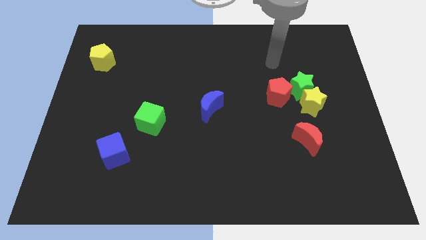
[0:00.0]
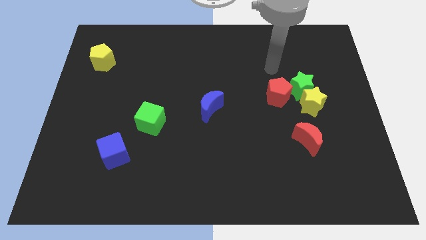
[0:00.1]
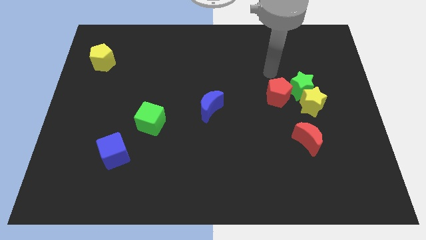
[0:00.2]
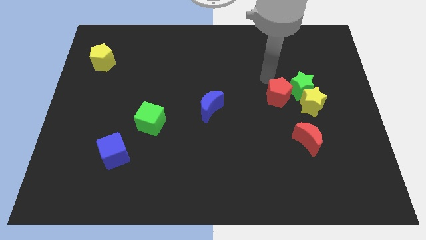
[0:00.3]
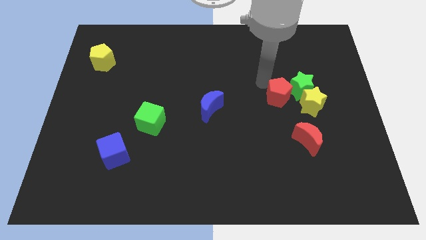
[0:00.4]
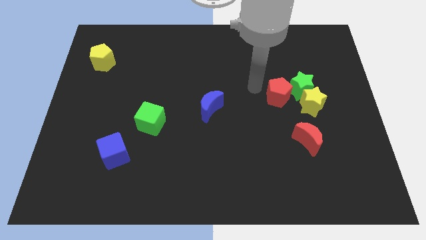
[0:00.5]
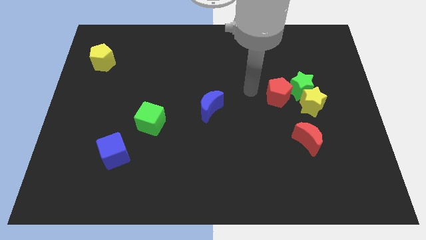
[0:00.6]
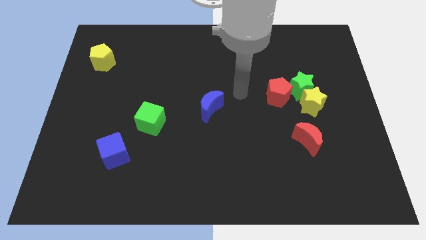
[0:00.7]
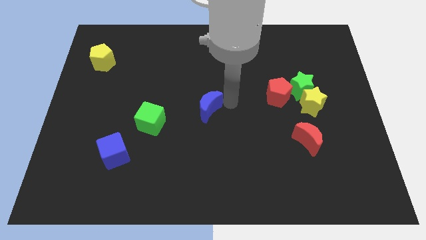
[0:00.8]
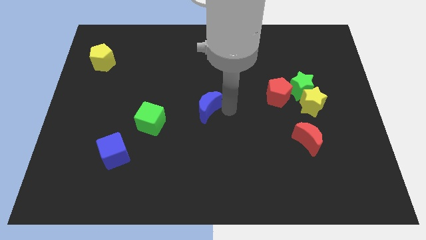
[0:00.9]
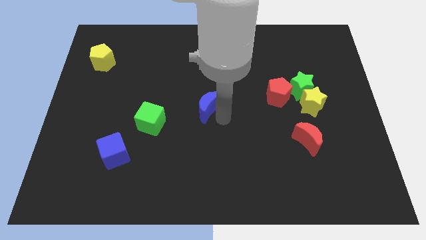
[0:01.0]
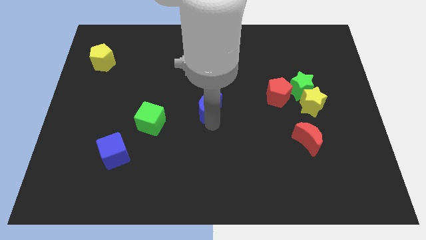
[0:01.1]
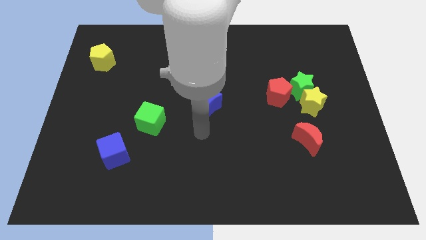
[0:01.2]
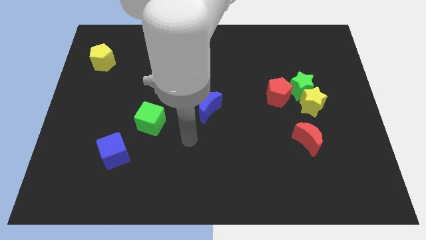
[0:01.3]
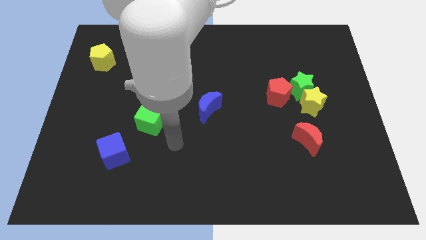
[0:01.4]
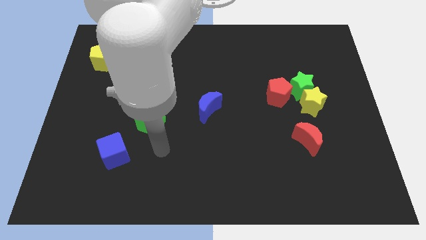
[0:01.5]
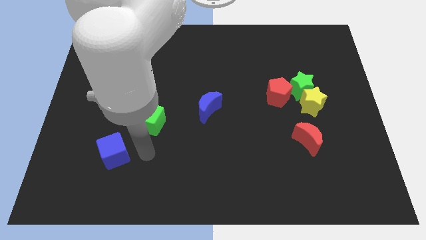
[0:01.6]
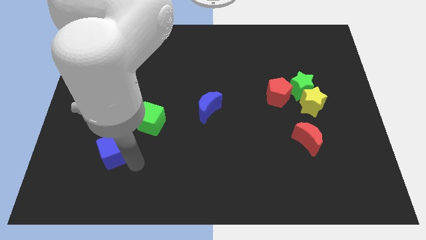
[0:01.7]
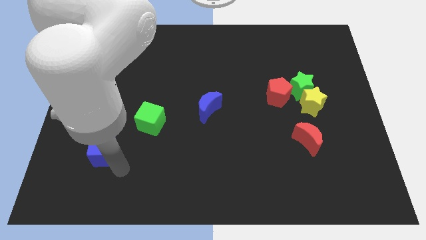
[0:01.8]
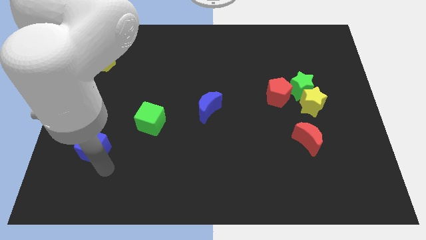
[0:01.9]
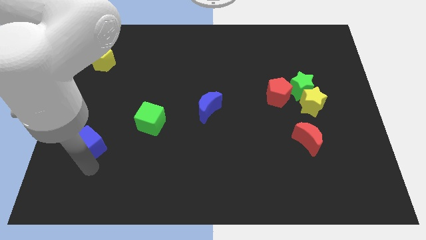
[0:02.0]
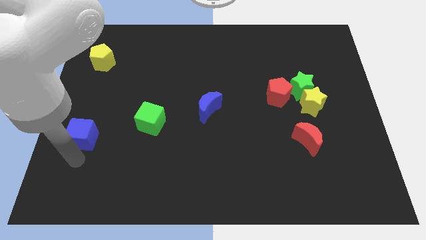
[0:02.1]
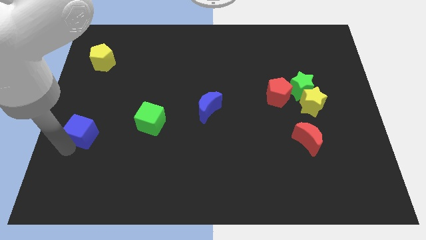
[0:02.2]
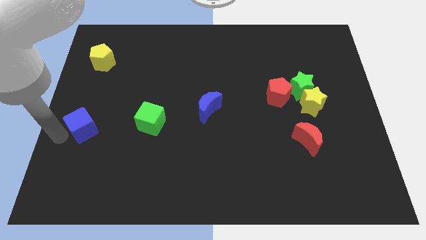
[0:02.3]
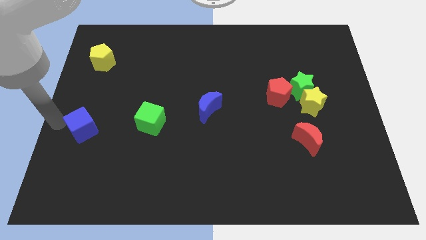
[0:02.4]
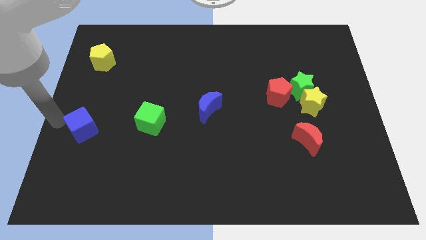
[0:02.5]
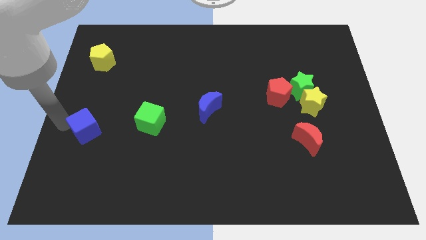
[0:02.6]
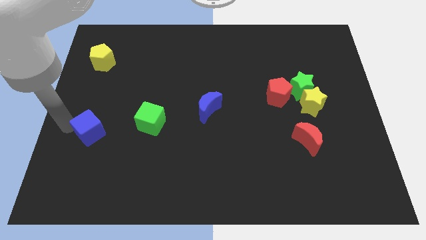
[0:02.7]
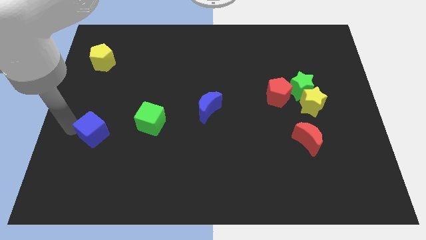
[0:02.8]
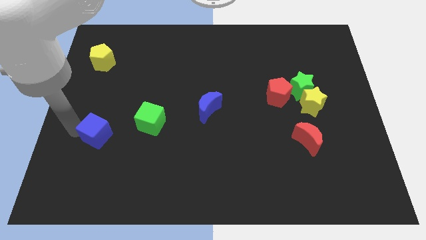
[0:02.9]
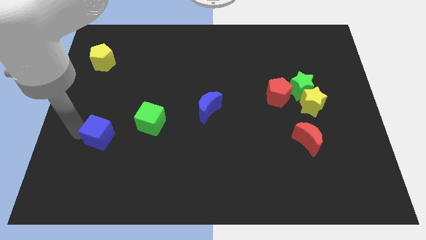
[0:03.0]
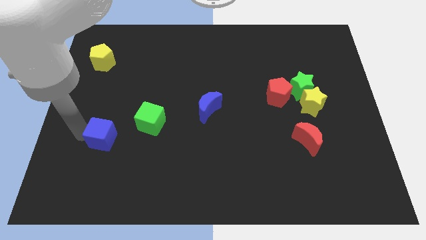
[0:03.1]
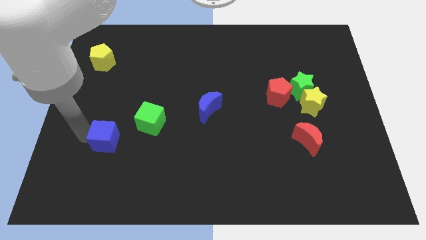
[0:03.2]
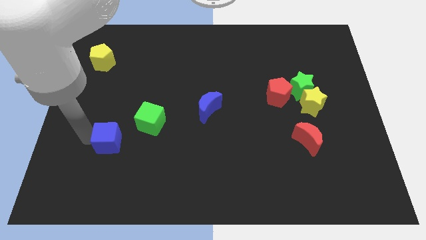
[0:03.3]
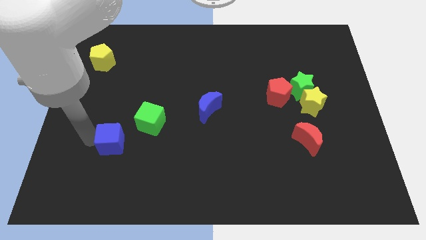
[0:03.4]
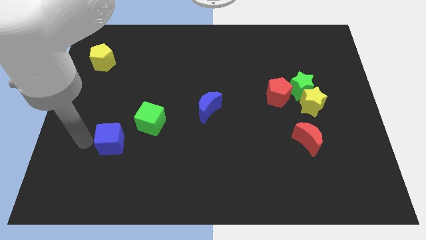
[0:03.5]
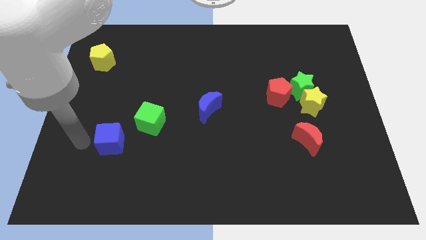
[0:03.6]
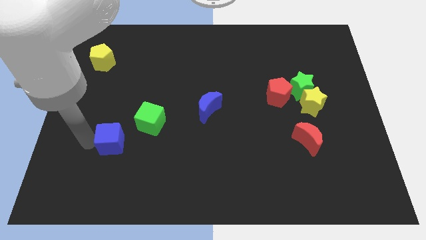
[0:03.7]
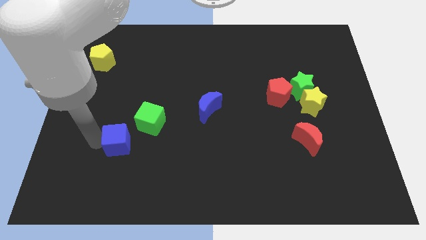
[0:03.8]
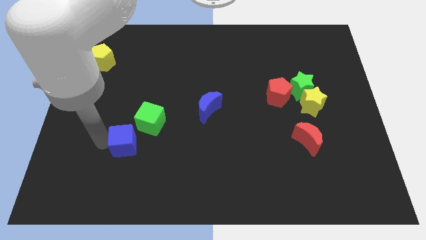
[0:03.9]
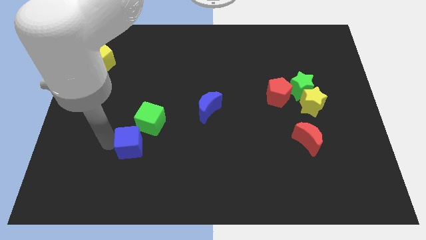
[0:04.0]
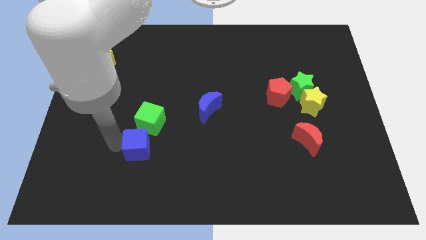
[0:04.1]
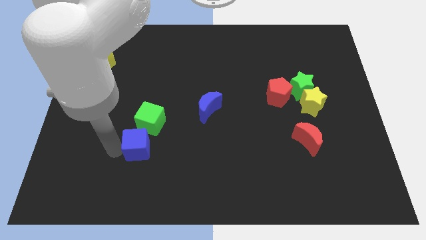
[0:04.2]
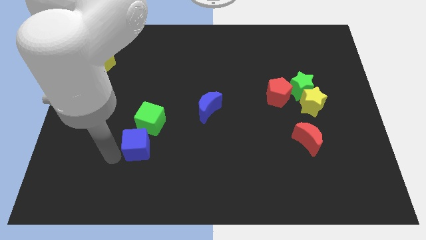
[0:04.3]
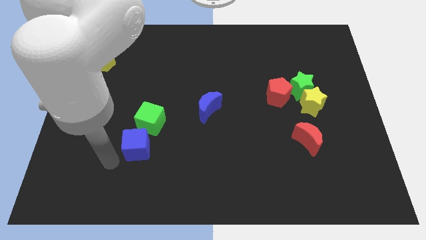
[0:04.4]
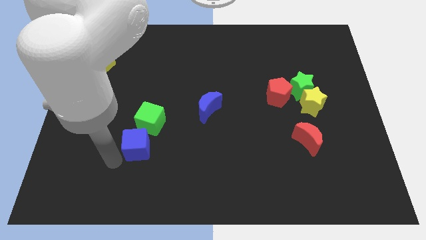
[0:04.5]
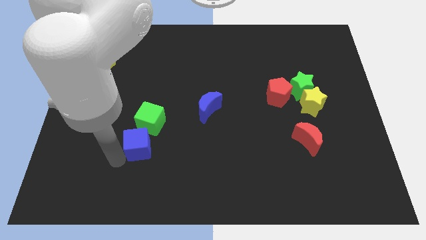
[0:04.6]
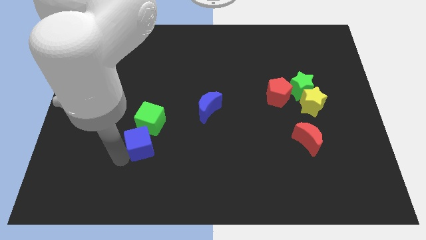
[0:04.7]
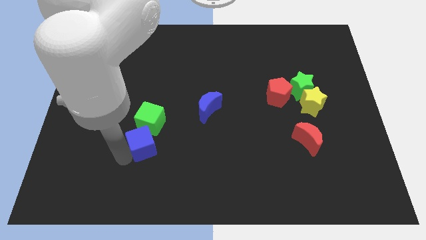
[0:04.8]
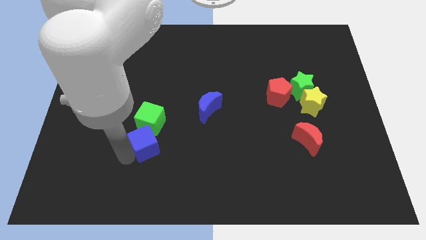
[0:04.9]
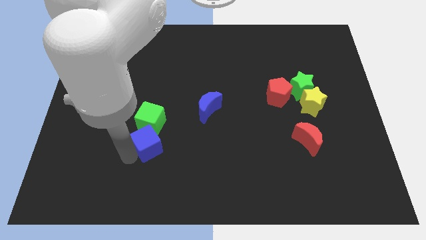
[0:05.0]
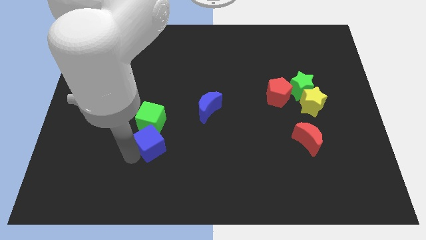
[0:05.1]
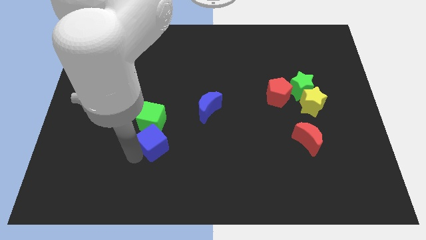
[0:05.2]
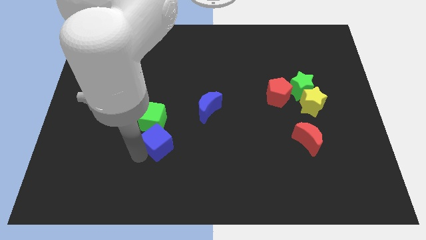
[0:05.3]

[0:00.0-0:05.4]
slightly push the blue cube up and right

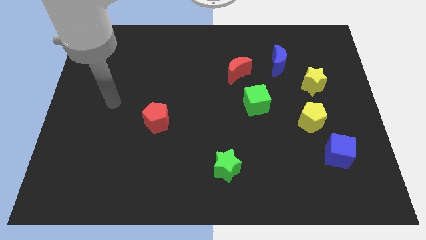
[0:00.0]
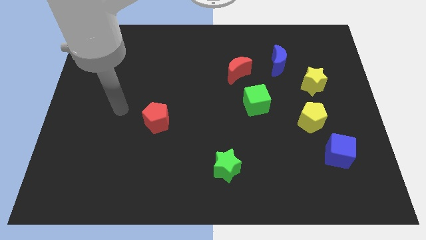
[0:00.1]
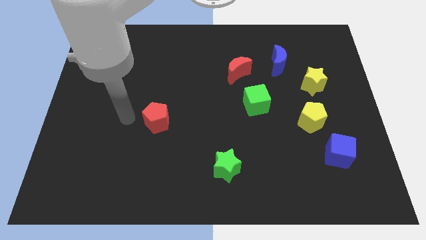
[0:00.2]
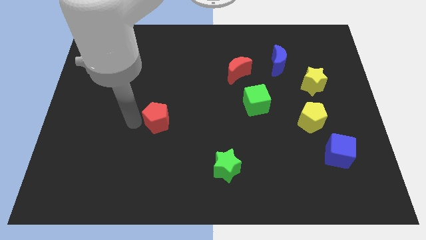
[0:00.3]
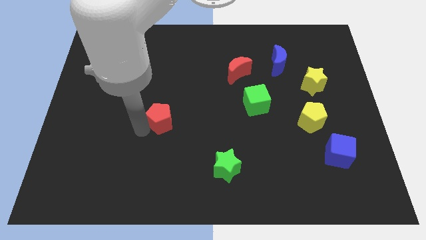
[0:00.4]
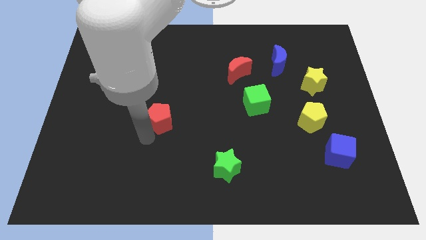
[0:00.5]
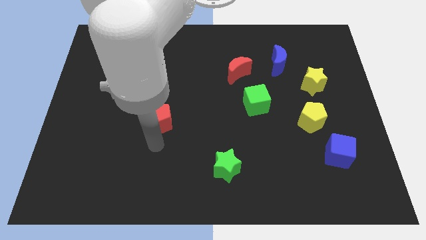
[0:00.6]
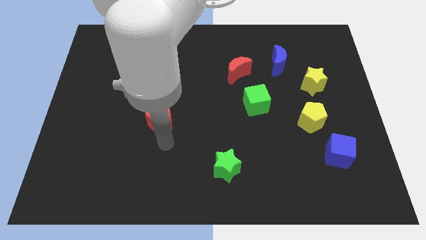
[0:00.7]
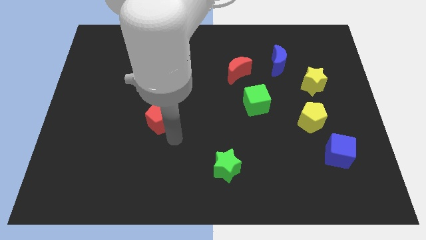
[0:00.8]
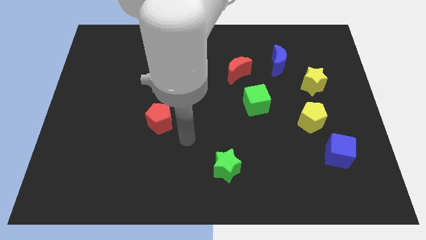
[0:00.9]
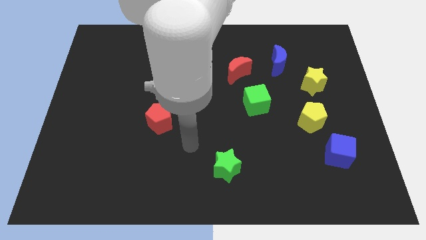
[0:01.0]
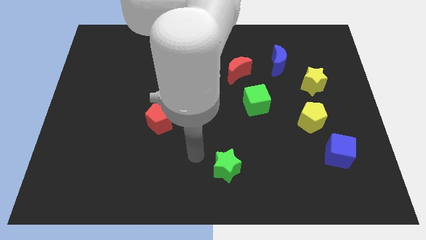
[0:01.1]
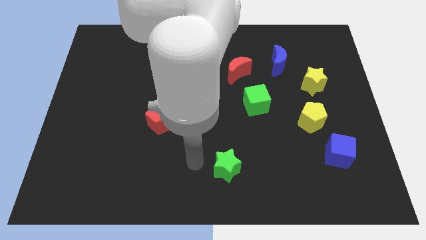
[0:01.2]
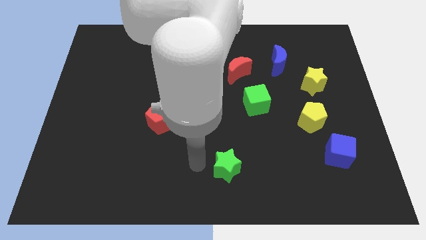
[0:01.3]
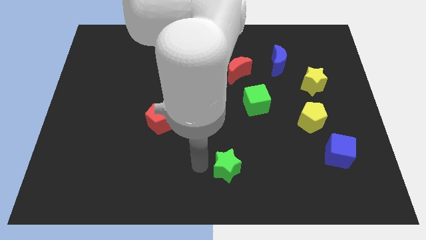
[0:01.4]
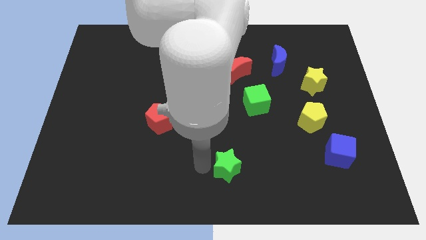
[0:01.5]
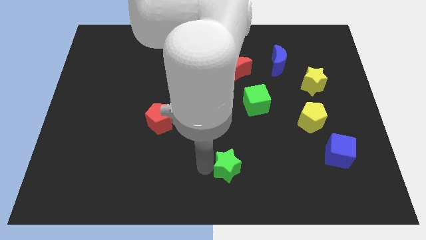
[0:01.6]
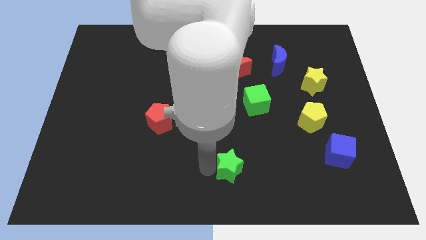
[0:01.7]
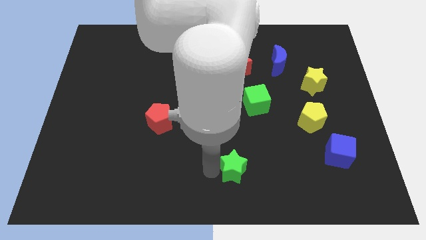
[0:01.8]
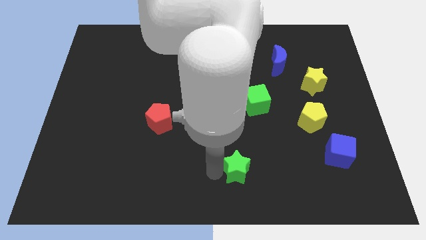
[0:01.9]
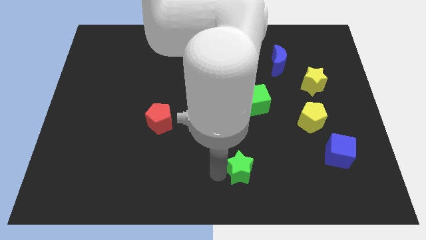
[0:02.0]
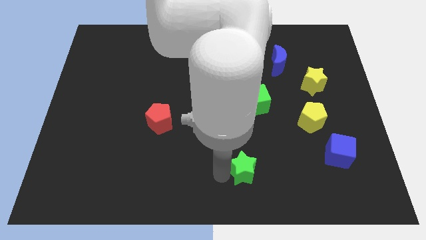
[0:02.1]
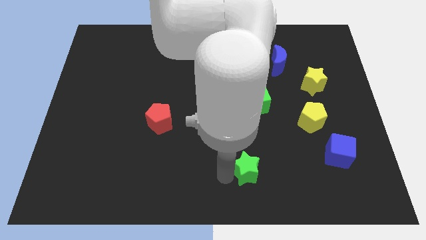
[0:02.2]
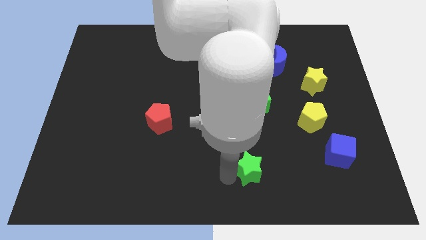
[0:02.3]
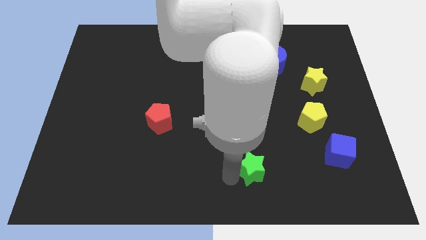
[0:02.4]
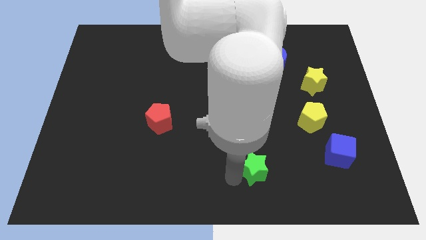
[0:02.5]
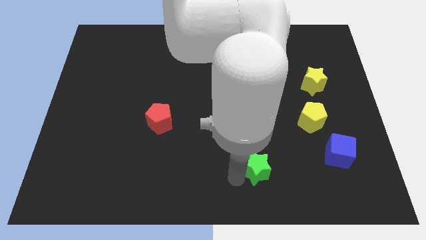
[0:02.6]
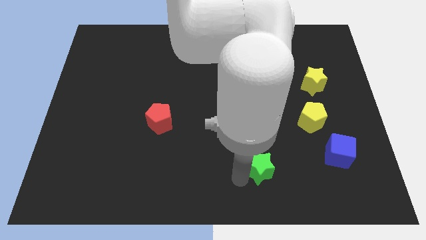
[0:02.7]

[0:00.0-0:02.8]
move the green star to the right somewhat
